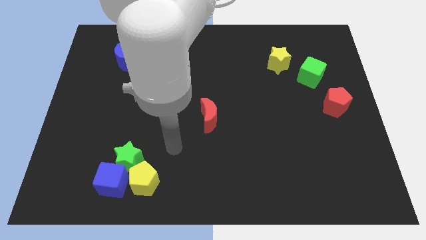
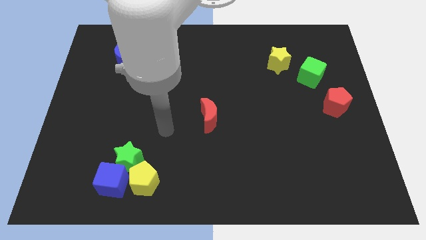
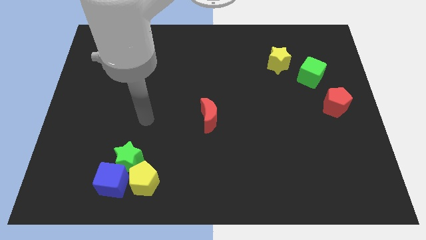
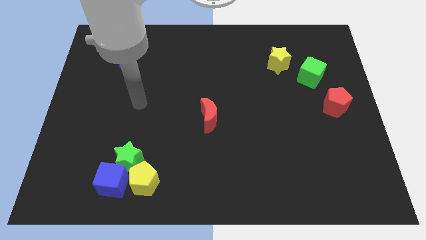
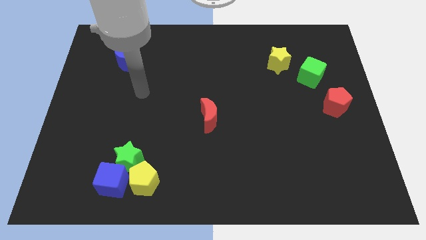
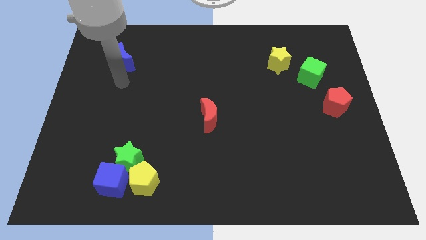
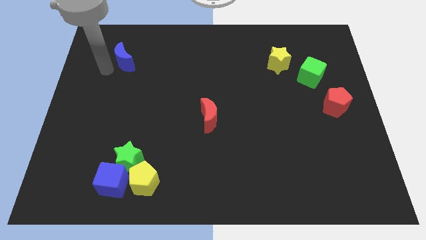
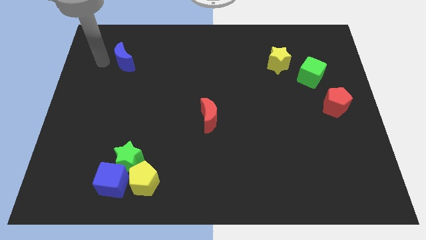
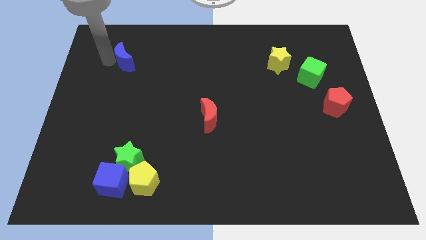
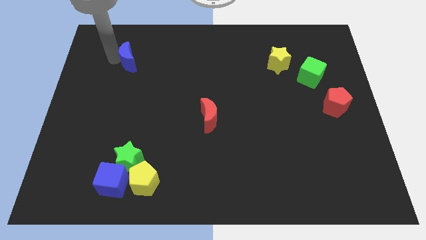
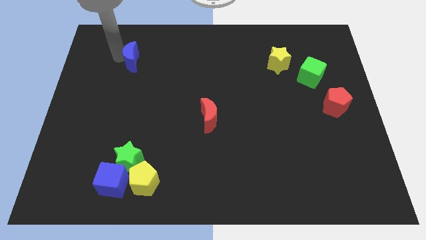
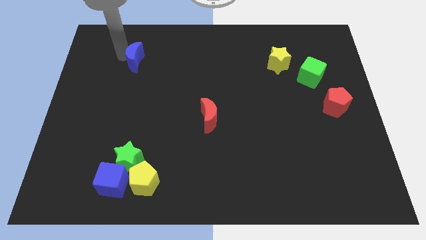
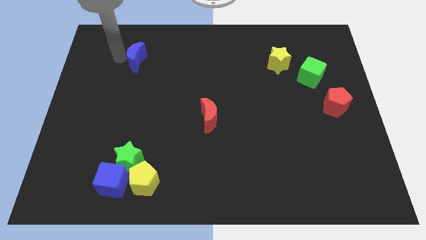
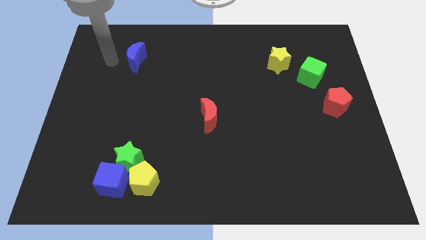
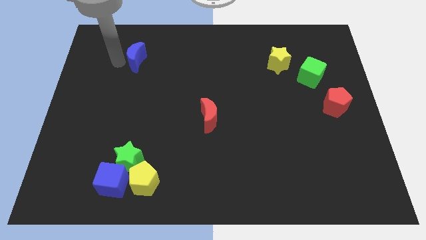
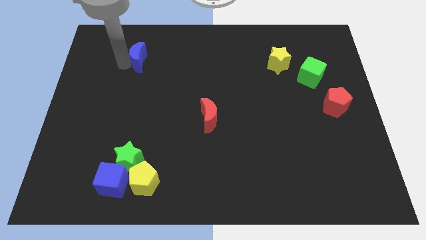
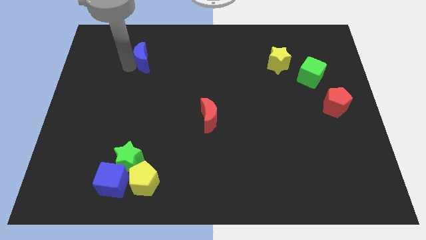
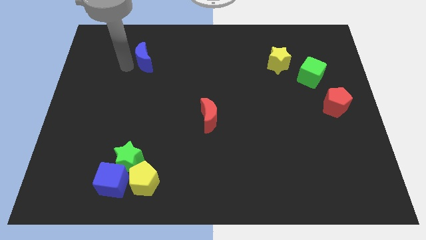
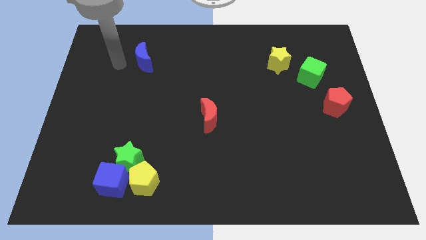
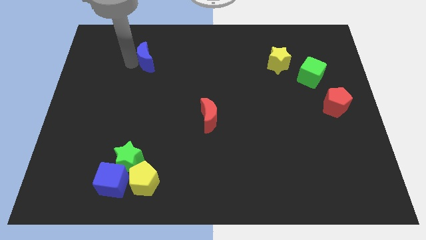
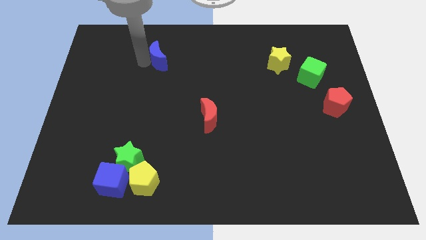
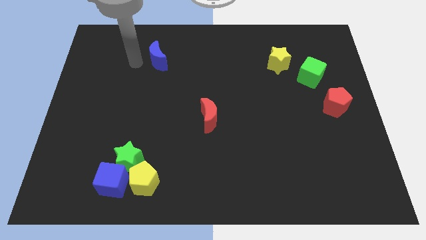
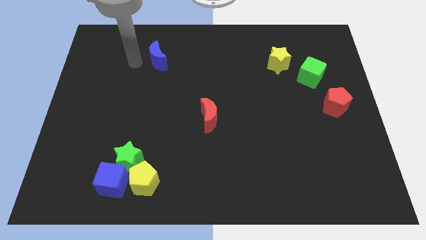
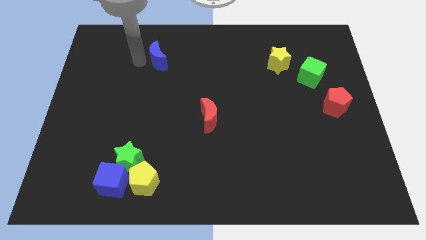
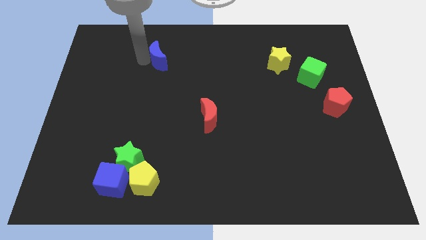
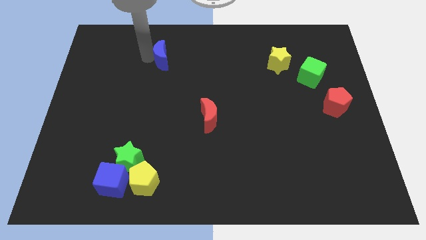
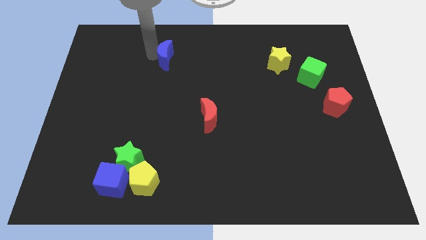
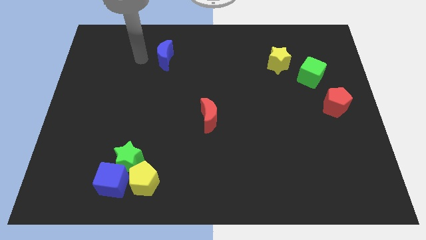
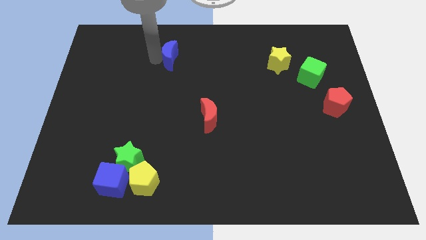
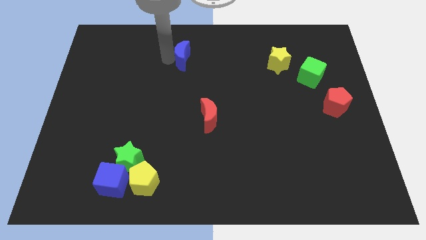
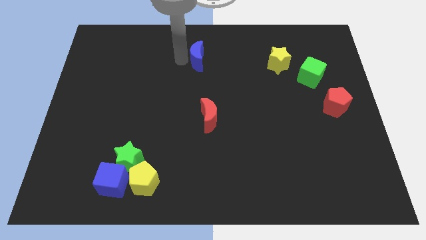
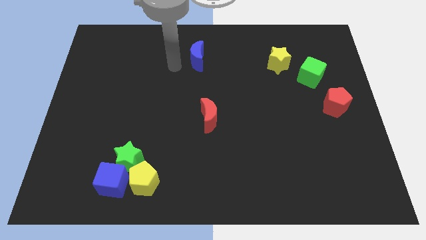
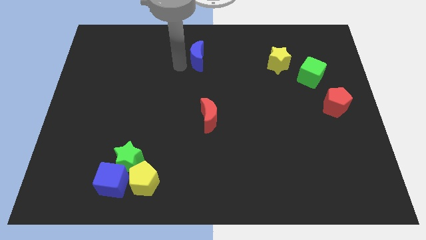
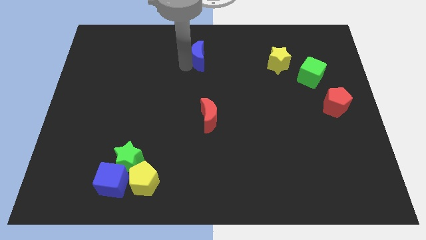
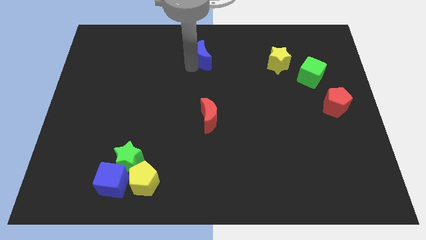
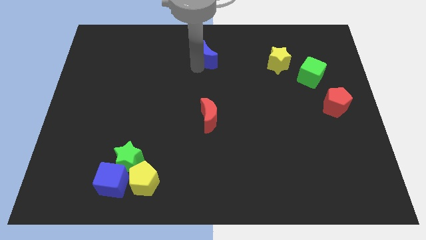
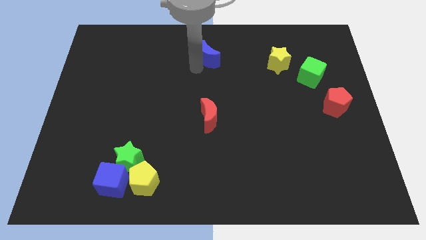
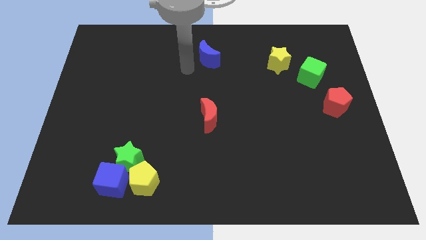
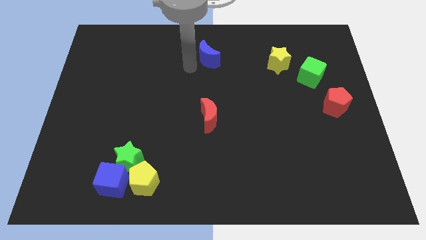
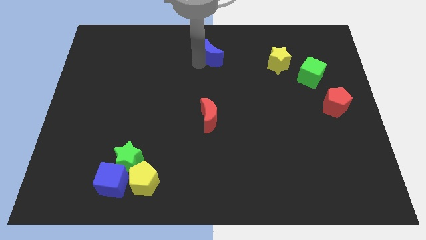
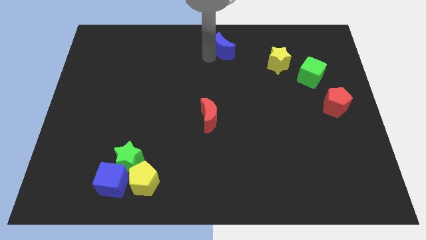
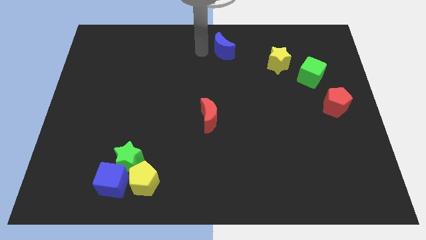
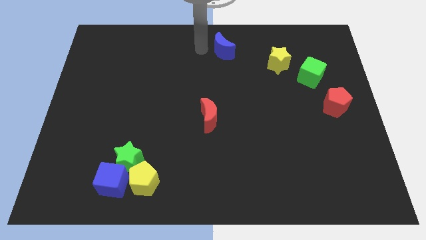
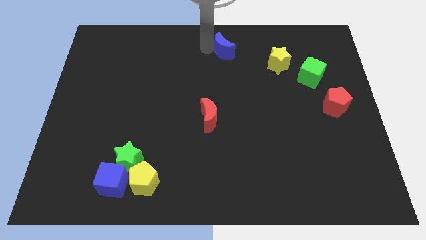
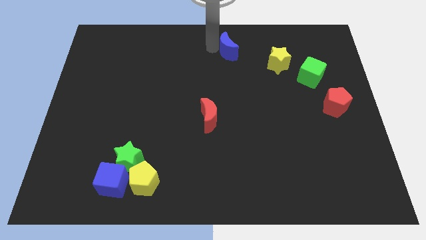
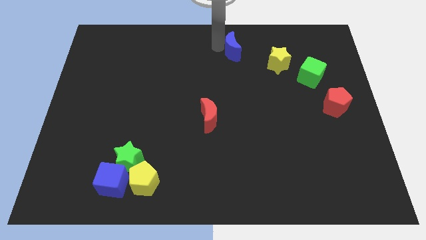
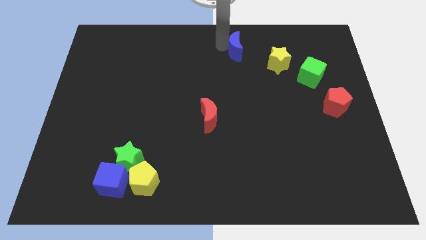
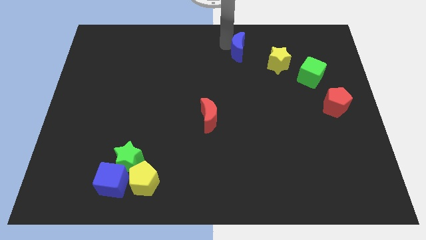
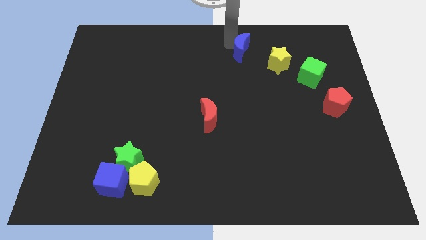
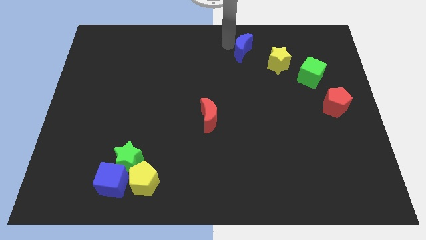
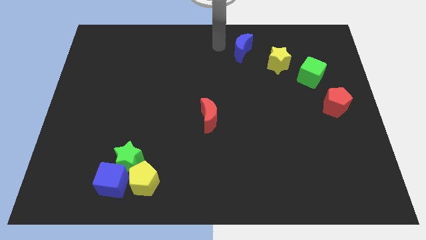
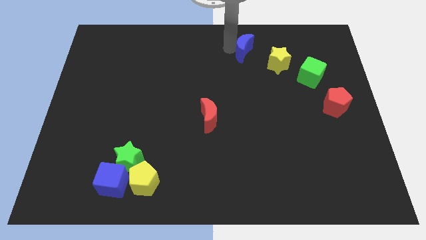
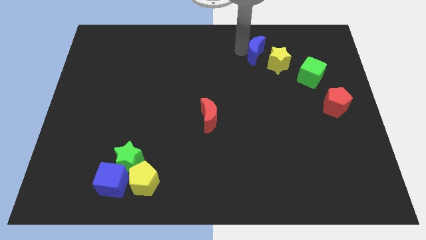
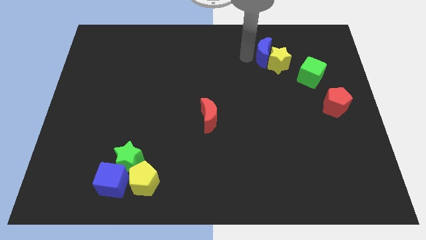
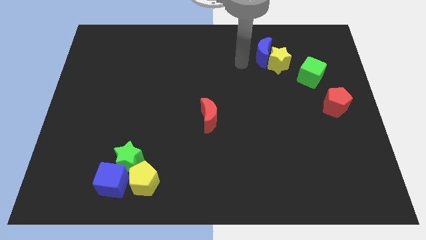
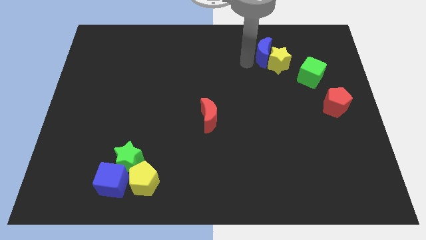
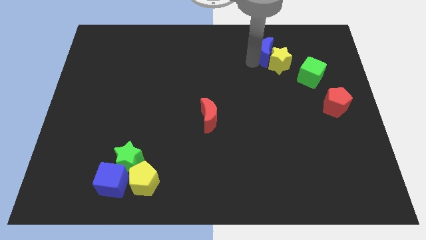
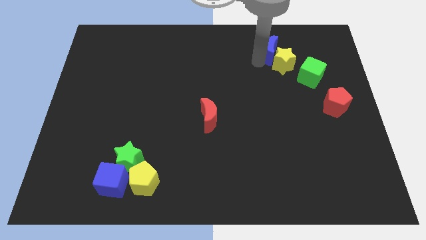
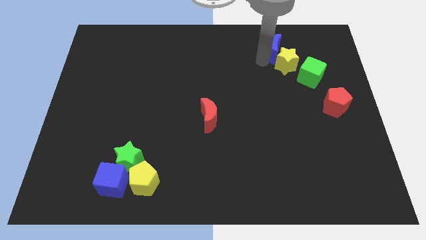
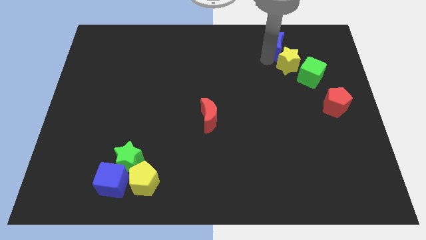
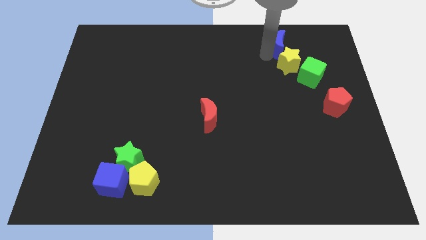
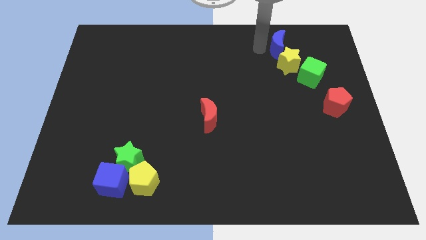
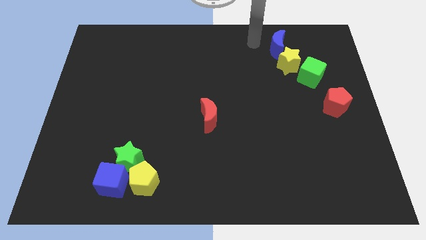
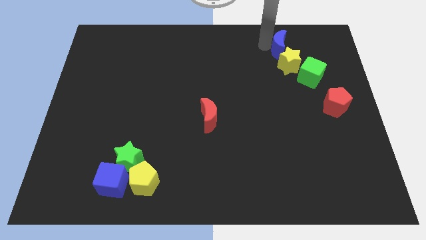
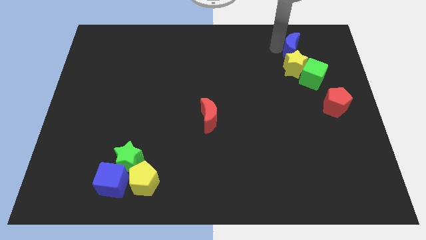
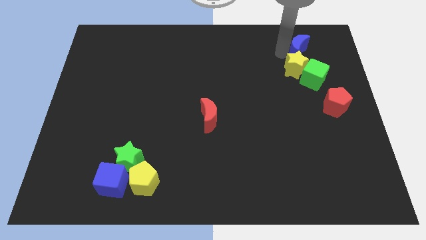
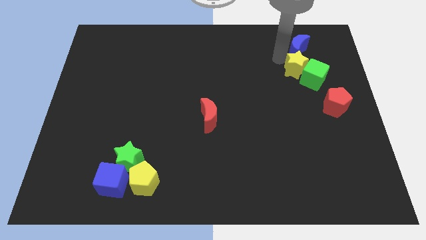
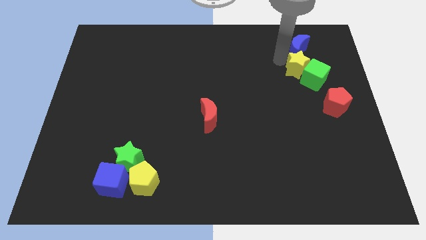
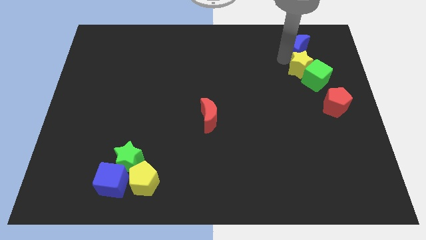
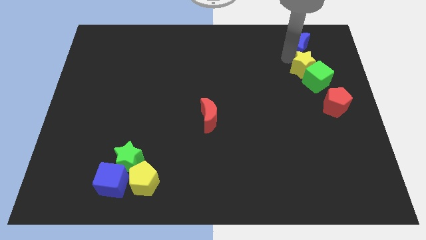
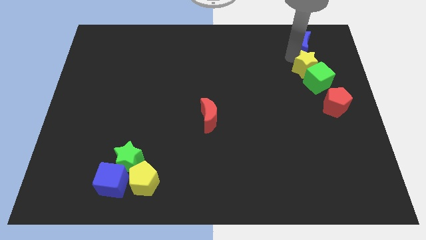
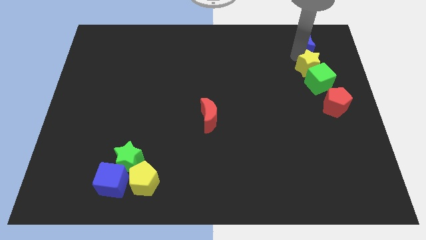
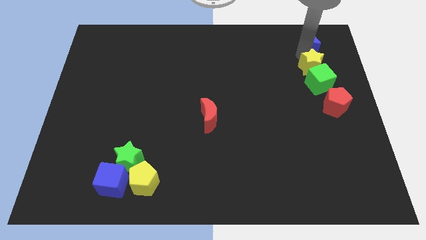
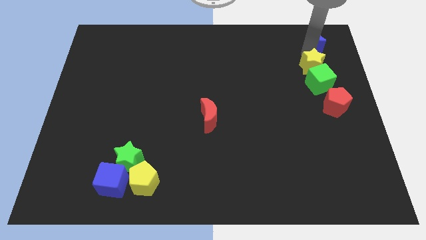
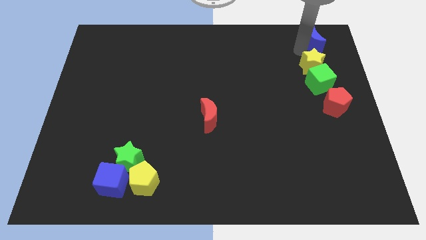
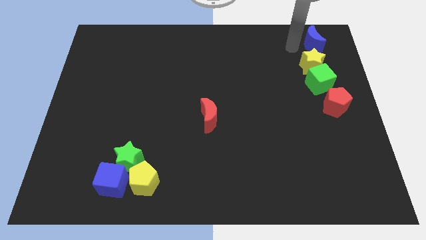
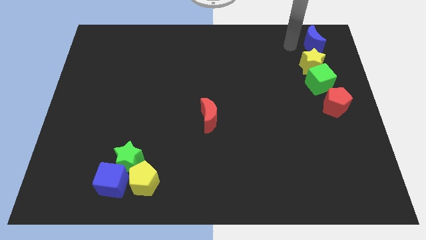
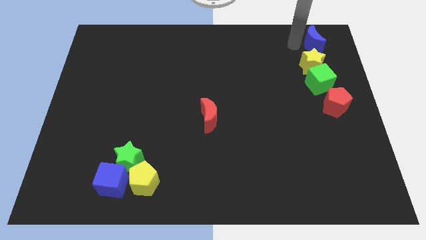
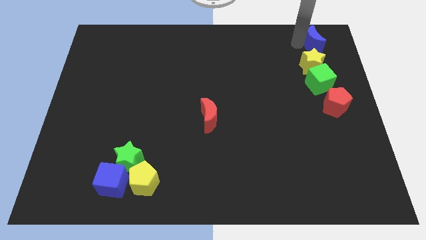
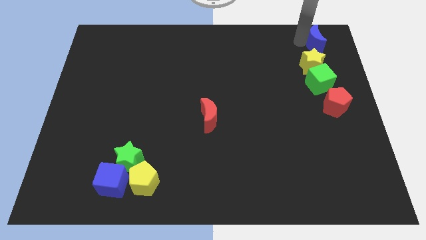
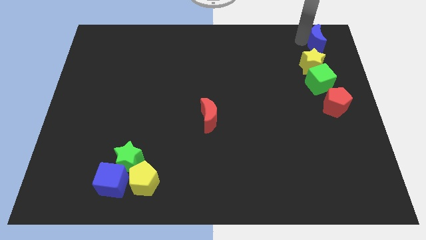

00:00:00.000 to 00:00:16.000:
put the blue moon to the top right corner
